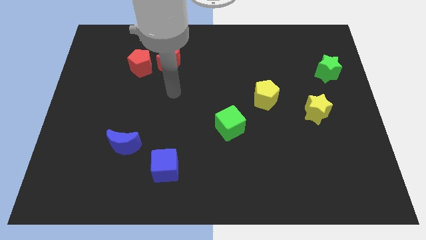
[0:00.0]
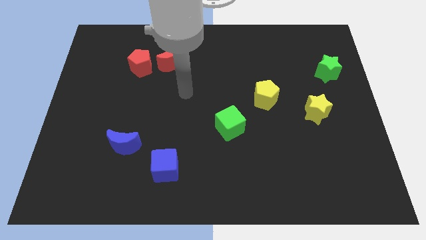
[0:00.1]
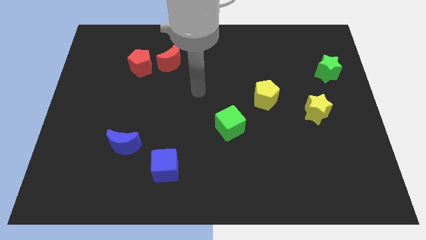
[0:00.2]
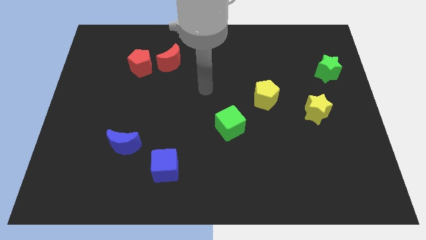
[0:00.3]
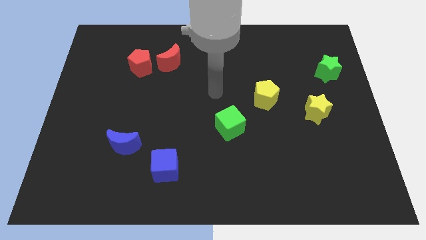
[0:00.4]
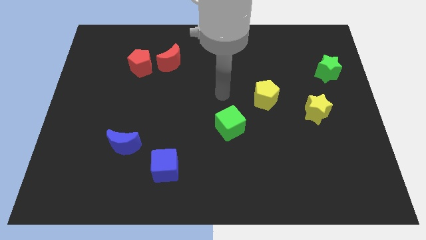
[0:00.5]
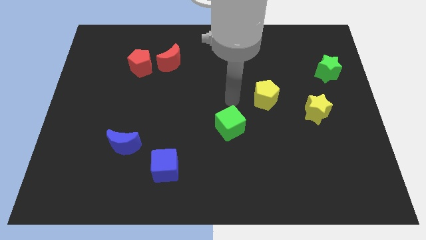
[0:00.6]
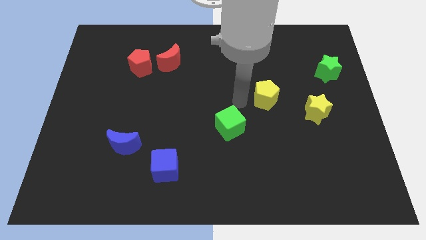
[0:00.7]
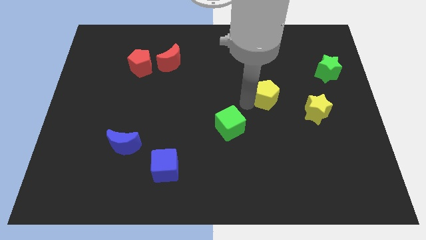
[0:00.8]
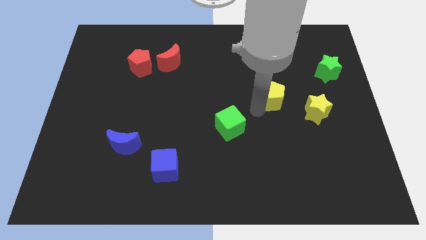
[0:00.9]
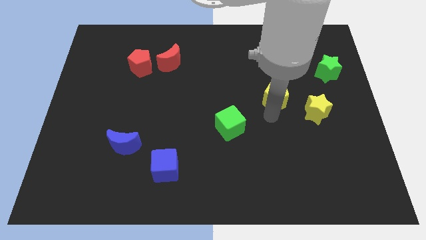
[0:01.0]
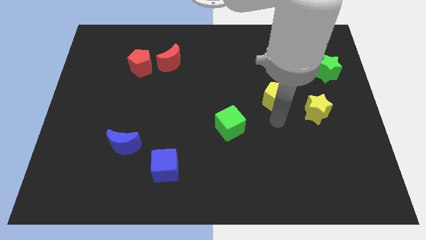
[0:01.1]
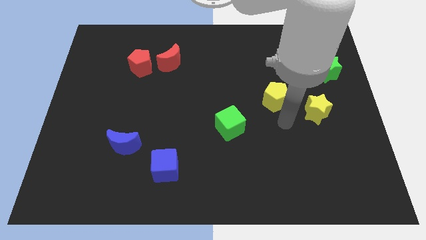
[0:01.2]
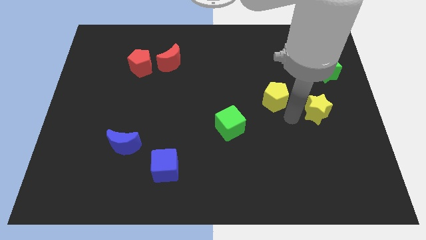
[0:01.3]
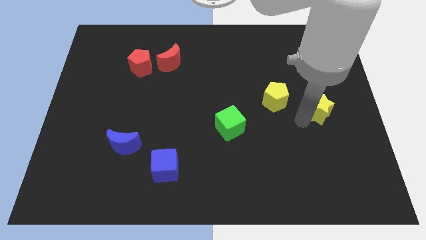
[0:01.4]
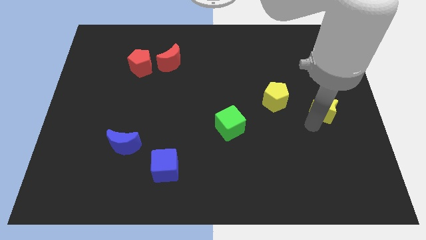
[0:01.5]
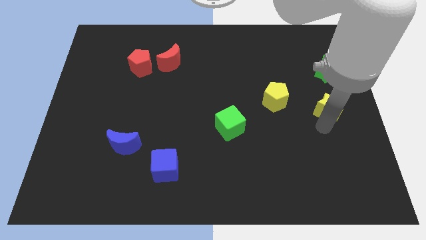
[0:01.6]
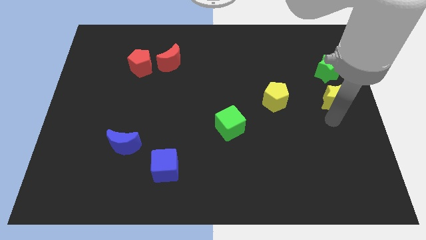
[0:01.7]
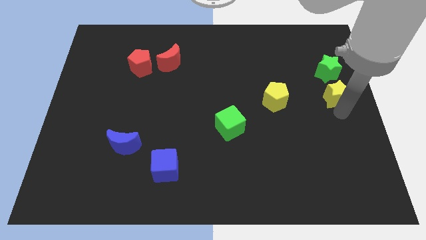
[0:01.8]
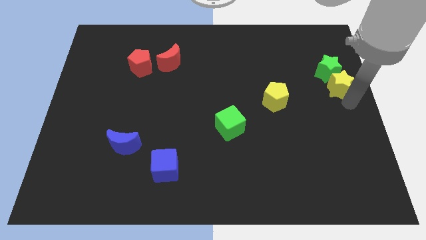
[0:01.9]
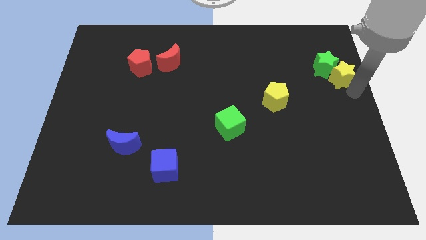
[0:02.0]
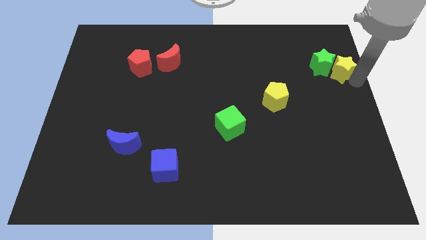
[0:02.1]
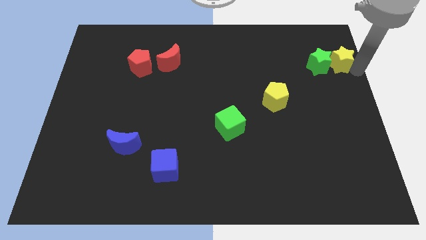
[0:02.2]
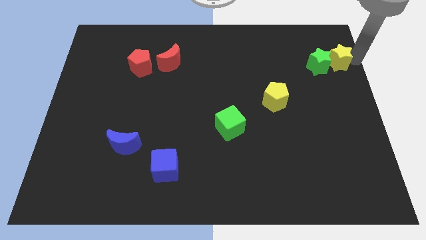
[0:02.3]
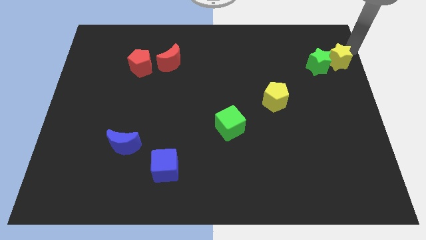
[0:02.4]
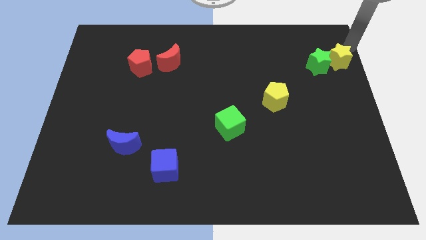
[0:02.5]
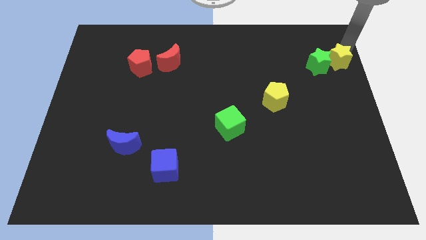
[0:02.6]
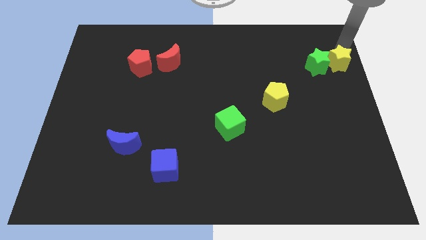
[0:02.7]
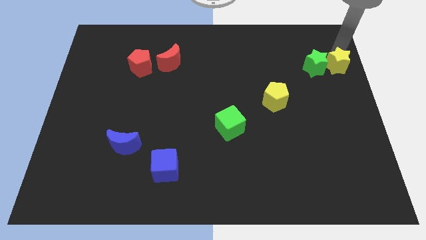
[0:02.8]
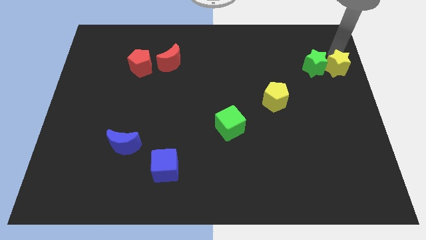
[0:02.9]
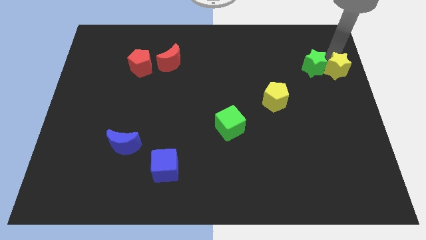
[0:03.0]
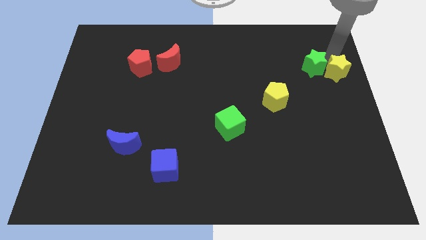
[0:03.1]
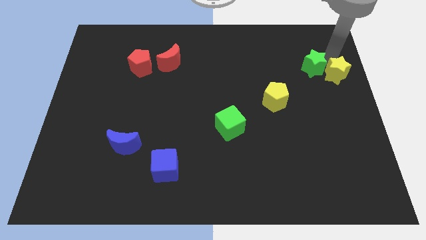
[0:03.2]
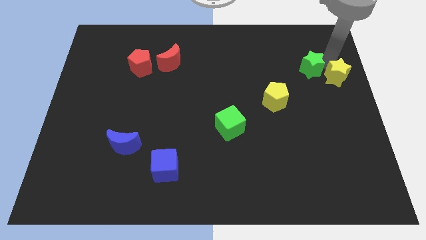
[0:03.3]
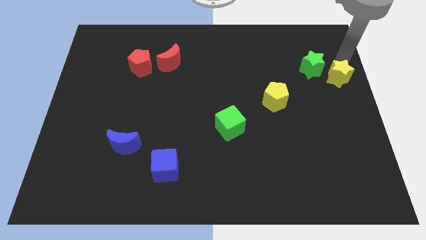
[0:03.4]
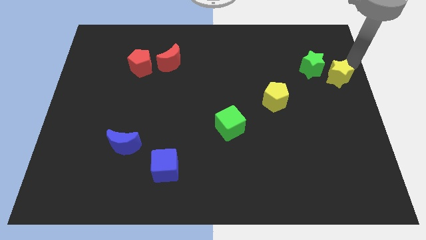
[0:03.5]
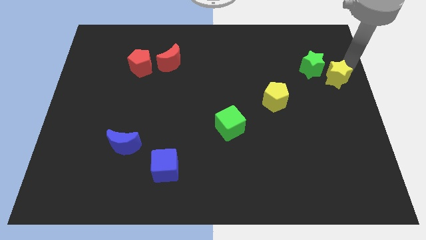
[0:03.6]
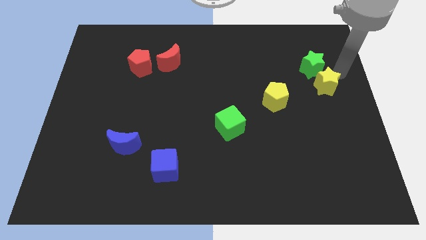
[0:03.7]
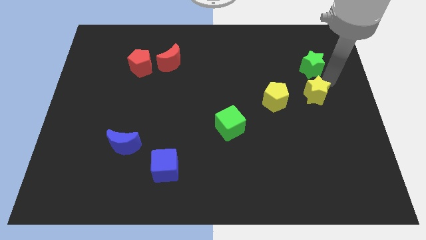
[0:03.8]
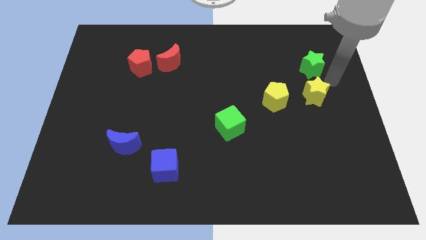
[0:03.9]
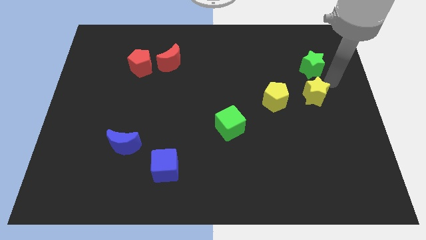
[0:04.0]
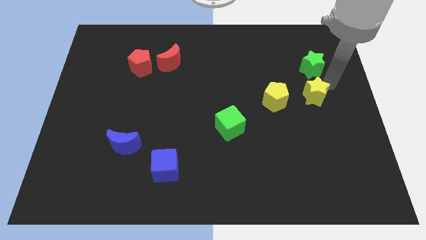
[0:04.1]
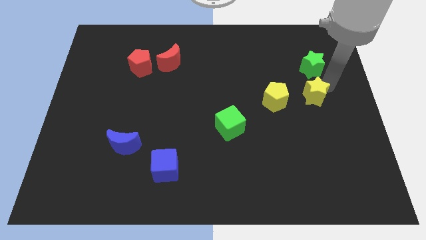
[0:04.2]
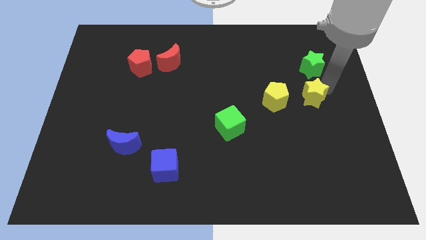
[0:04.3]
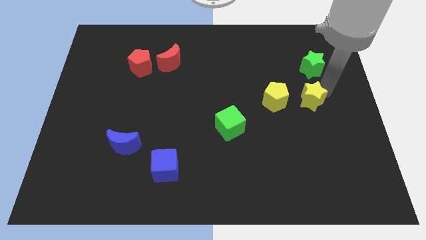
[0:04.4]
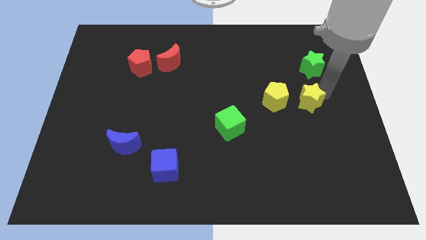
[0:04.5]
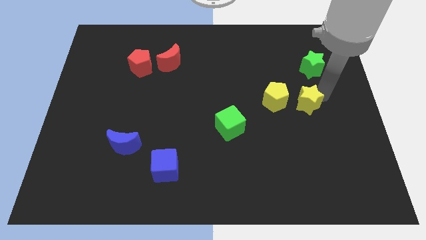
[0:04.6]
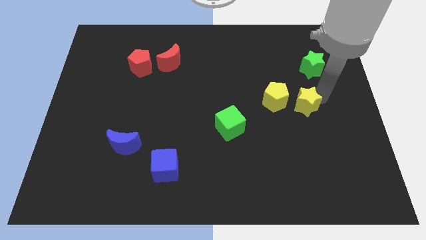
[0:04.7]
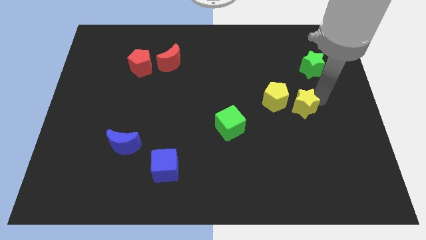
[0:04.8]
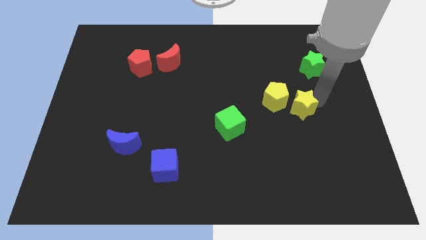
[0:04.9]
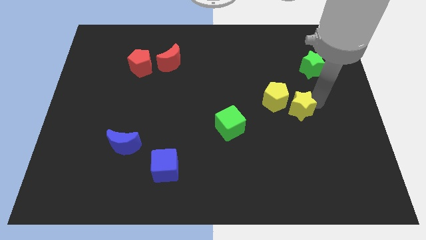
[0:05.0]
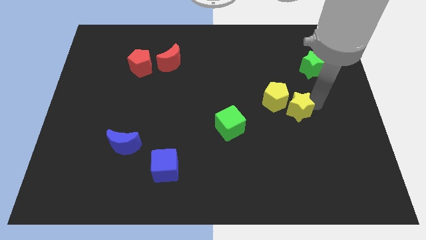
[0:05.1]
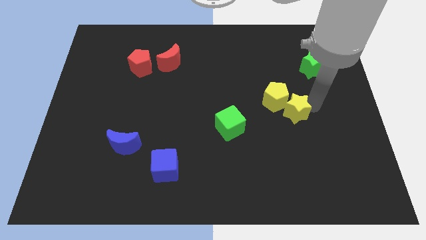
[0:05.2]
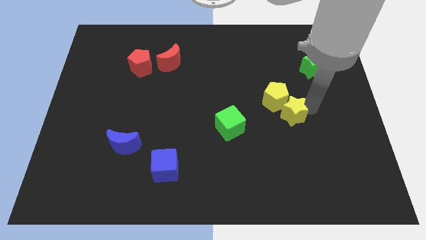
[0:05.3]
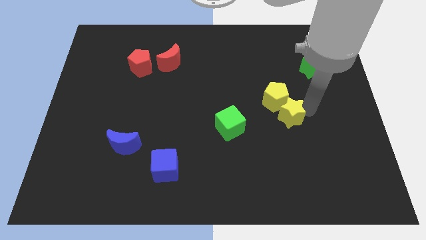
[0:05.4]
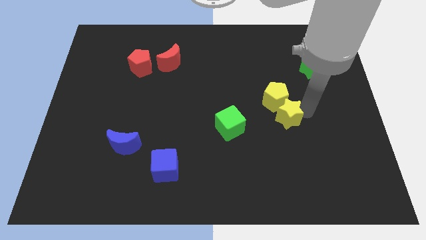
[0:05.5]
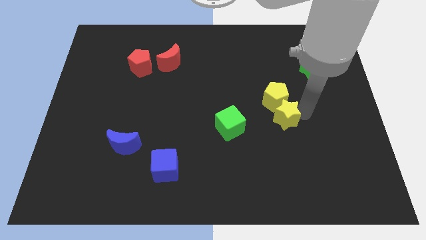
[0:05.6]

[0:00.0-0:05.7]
push the yellow star a little to the left

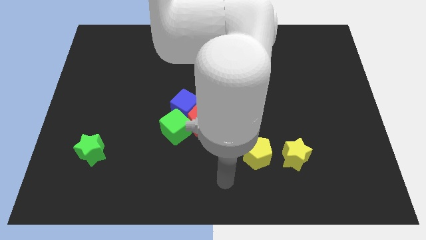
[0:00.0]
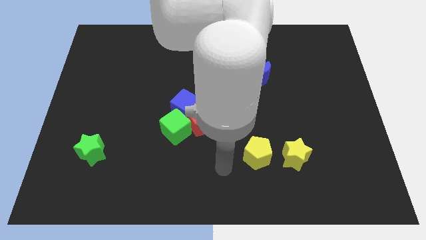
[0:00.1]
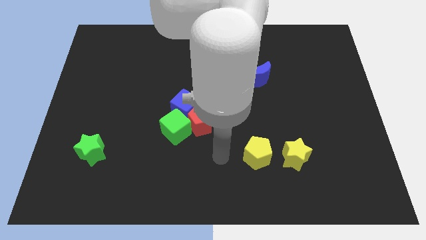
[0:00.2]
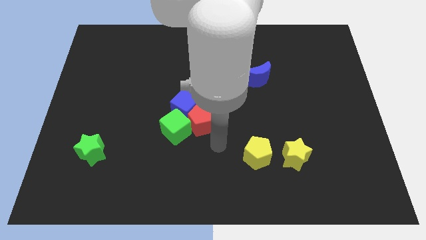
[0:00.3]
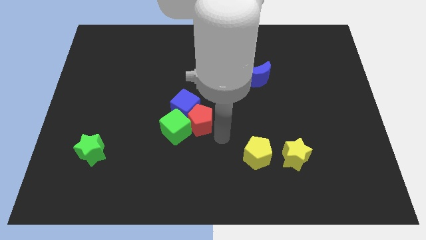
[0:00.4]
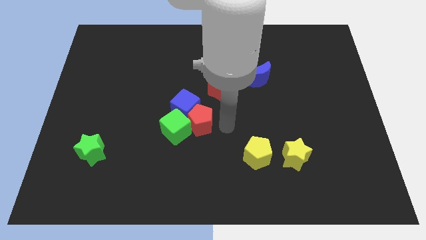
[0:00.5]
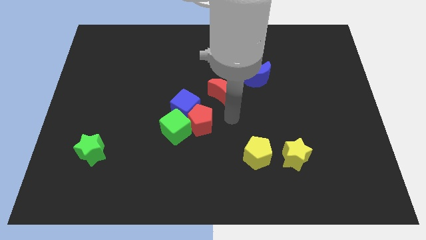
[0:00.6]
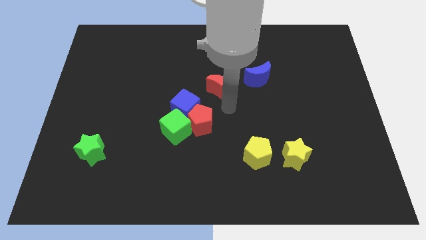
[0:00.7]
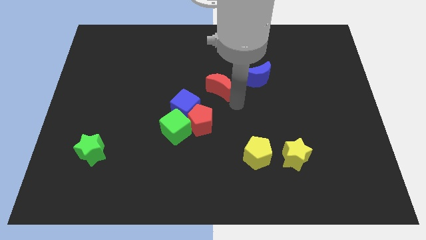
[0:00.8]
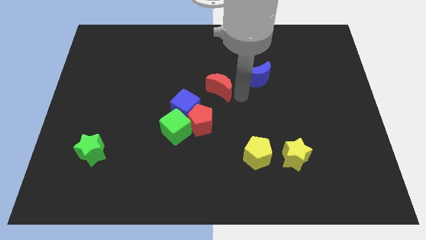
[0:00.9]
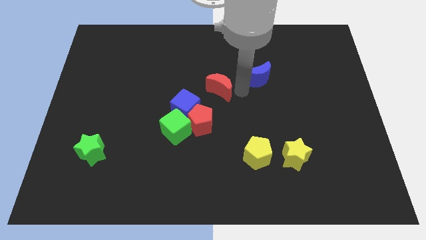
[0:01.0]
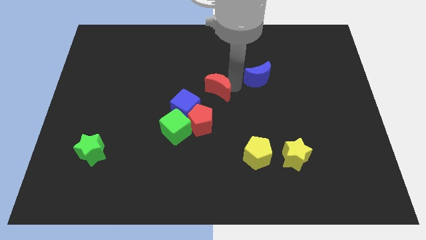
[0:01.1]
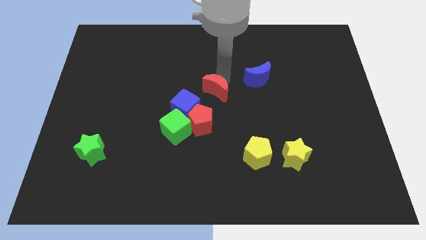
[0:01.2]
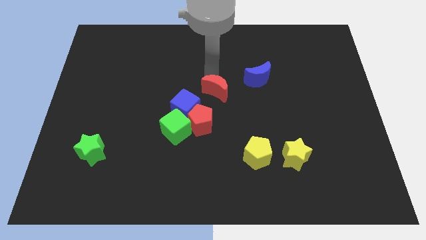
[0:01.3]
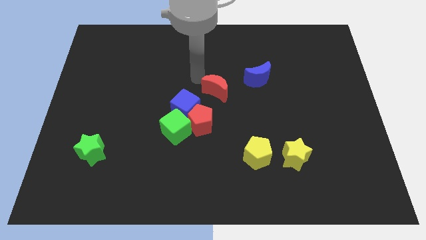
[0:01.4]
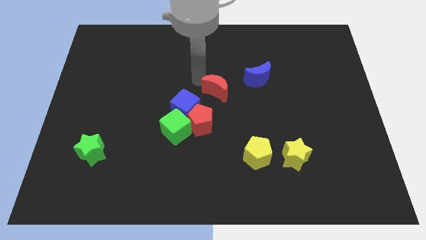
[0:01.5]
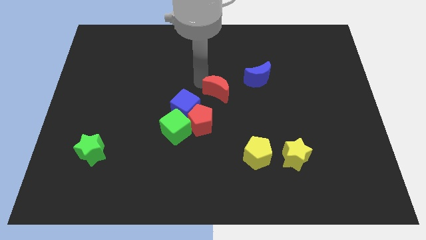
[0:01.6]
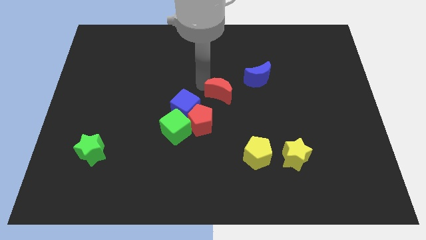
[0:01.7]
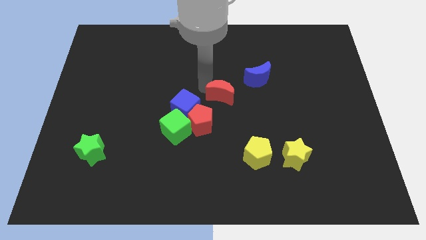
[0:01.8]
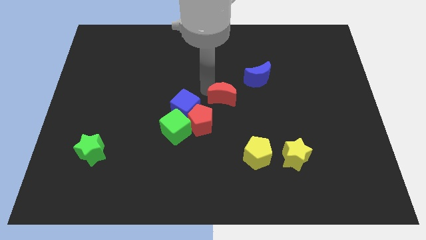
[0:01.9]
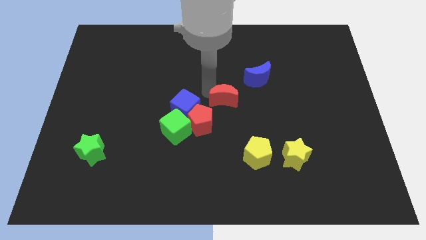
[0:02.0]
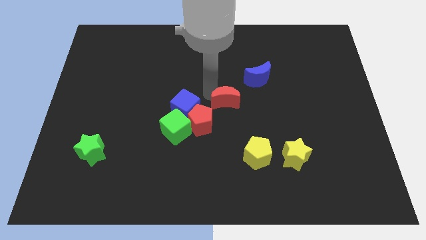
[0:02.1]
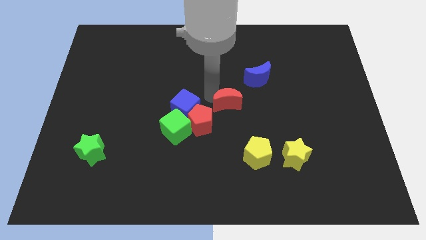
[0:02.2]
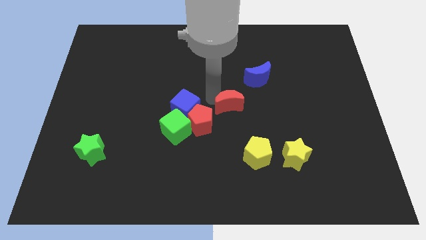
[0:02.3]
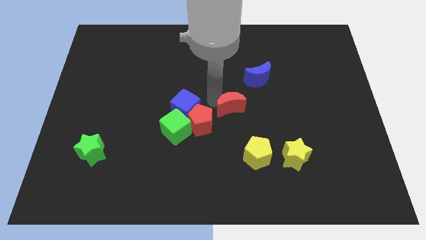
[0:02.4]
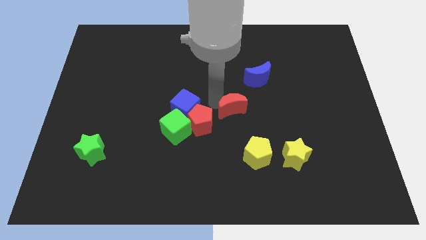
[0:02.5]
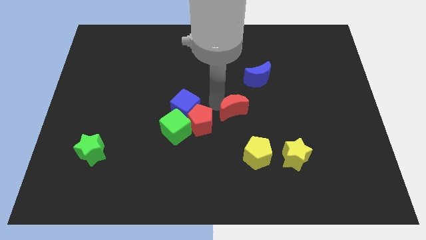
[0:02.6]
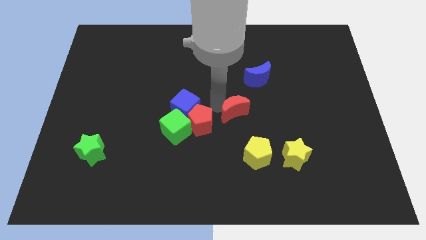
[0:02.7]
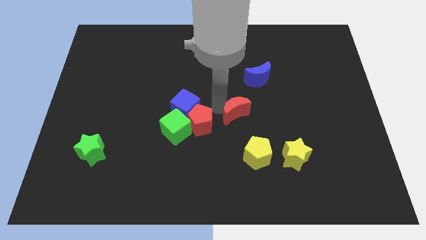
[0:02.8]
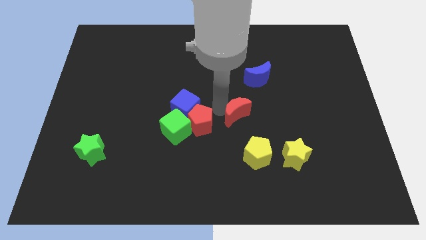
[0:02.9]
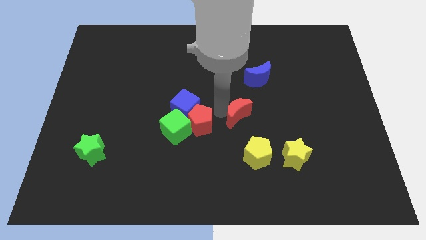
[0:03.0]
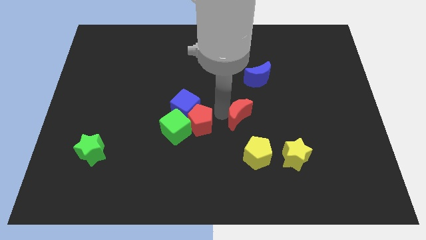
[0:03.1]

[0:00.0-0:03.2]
slightly slide the red moon downwards and right
